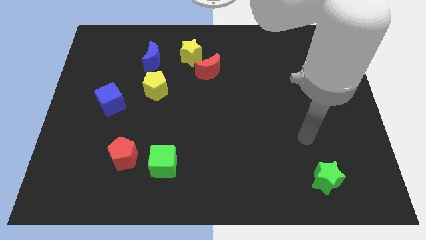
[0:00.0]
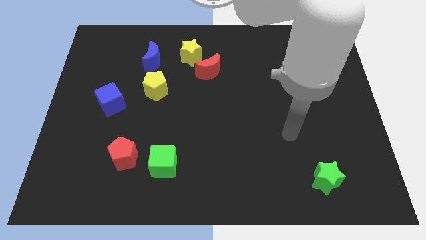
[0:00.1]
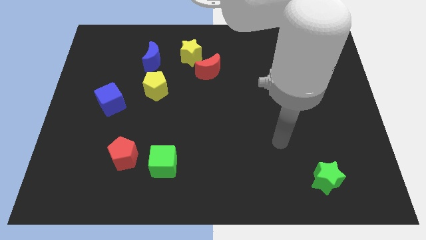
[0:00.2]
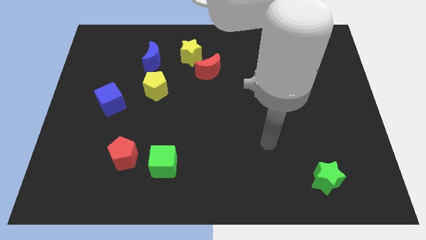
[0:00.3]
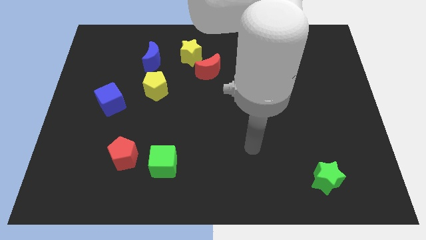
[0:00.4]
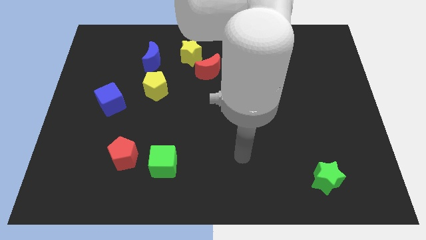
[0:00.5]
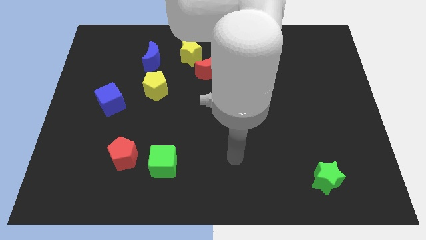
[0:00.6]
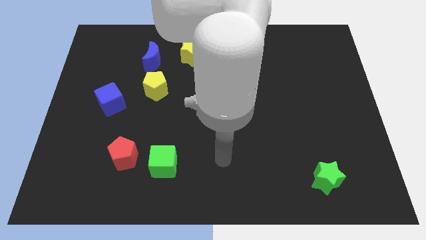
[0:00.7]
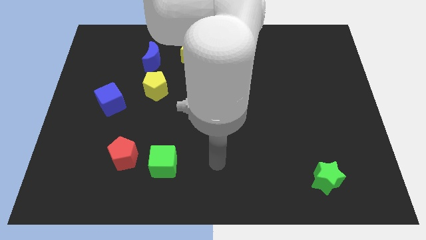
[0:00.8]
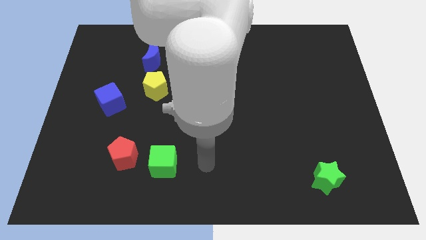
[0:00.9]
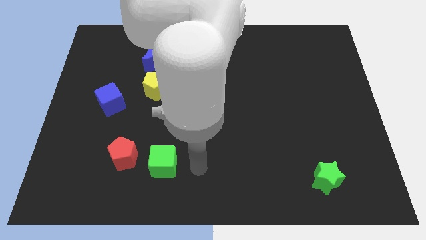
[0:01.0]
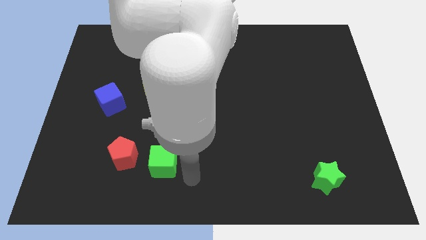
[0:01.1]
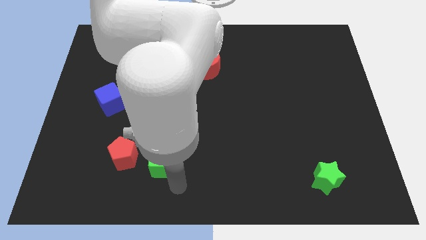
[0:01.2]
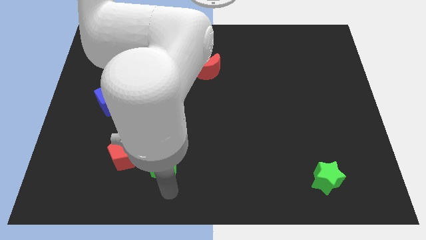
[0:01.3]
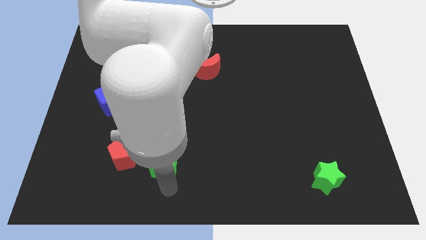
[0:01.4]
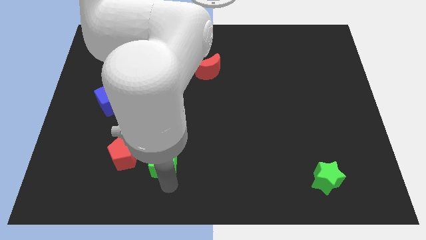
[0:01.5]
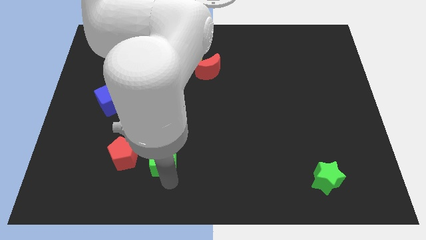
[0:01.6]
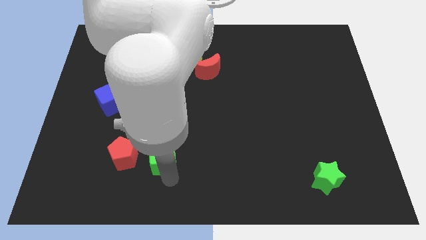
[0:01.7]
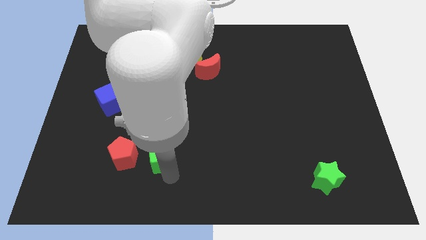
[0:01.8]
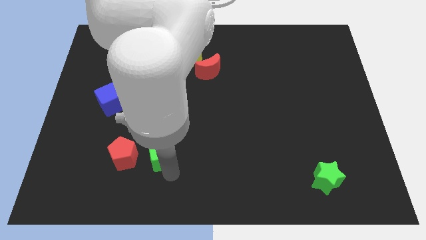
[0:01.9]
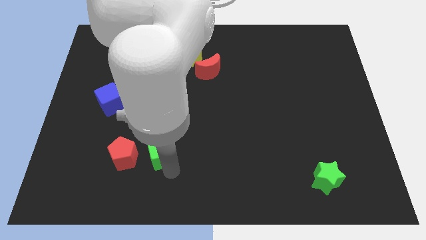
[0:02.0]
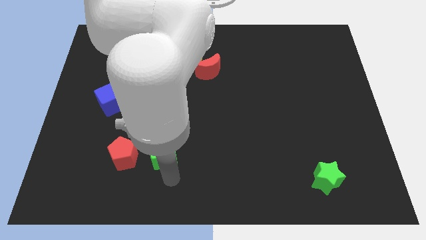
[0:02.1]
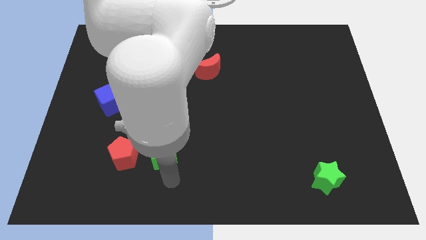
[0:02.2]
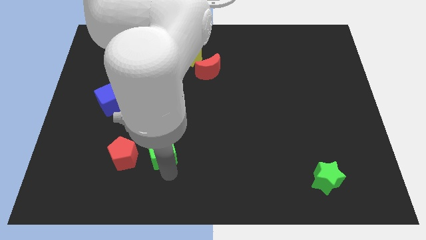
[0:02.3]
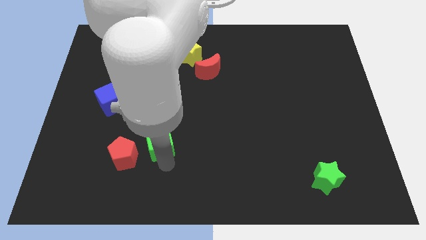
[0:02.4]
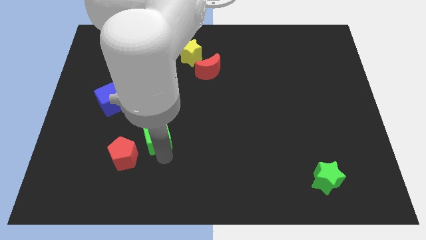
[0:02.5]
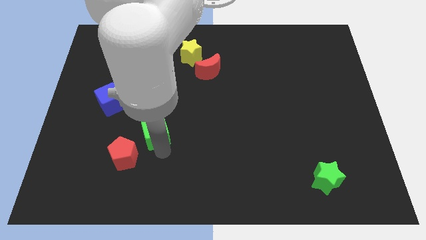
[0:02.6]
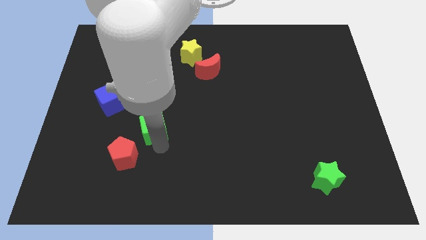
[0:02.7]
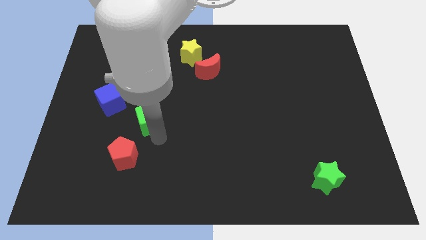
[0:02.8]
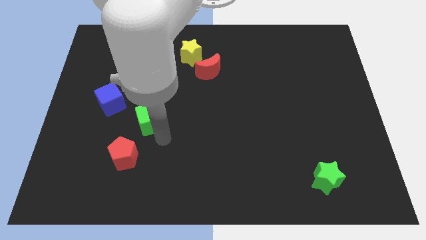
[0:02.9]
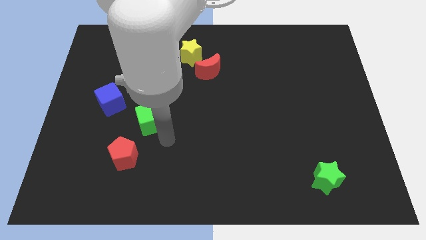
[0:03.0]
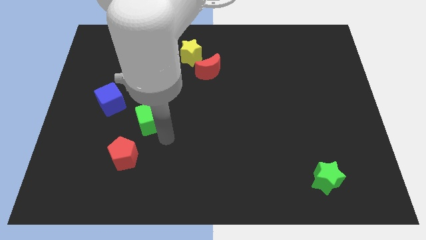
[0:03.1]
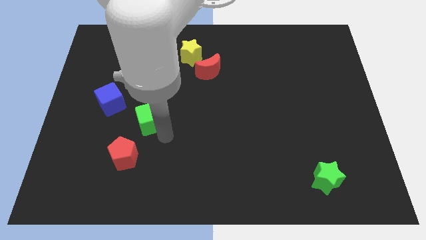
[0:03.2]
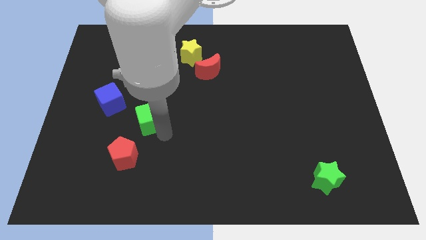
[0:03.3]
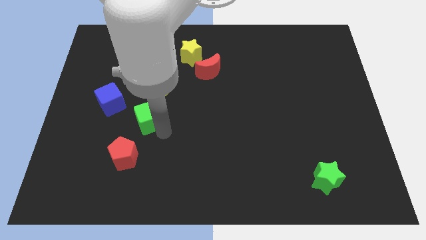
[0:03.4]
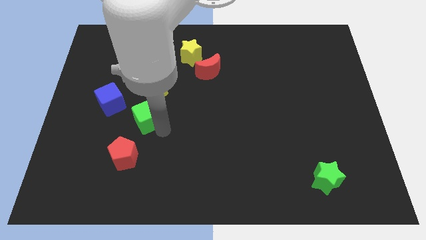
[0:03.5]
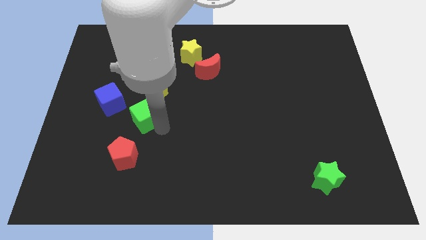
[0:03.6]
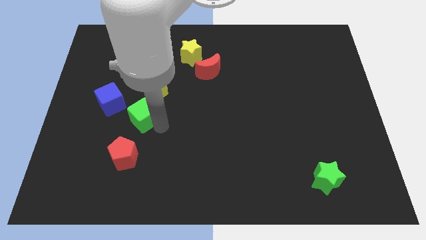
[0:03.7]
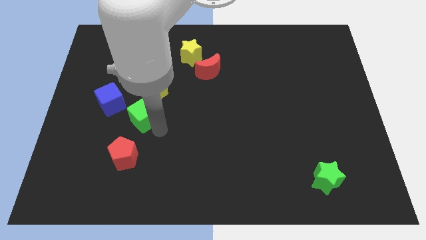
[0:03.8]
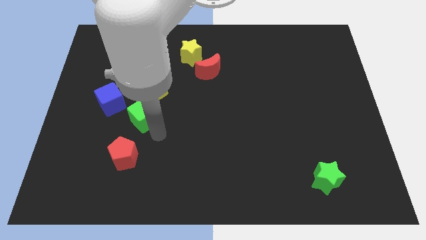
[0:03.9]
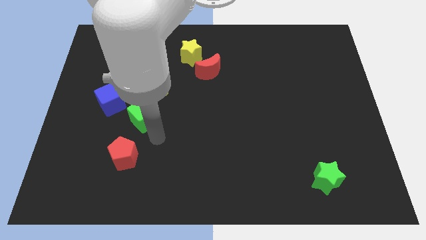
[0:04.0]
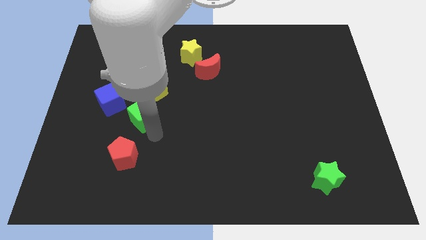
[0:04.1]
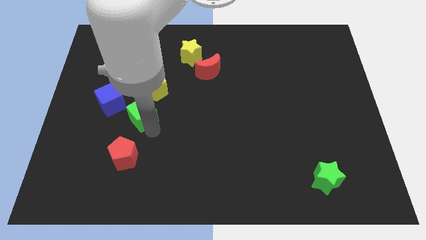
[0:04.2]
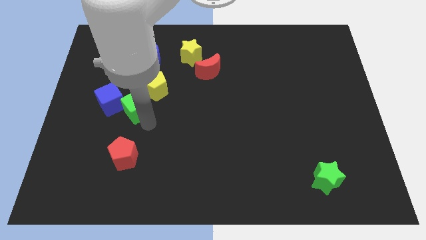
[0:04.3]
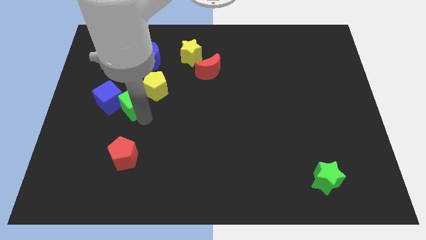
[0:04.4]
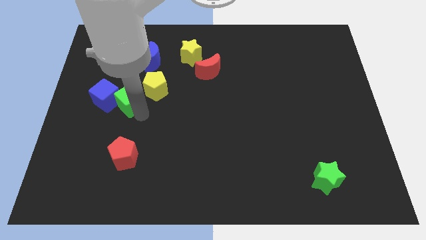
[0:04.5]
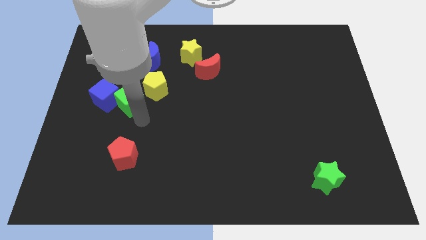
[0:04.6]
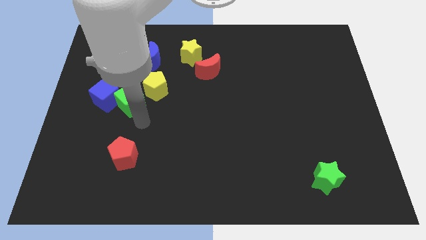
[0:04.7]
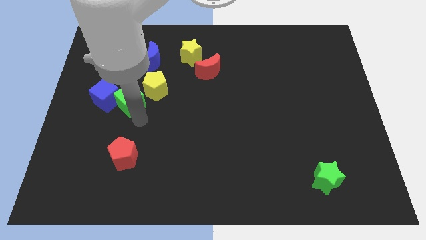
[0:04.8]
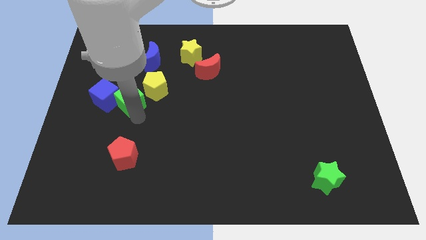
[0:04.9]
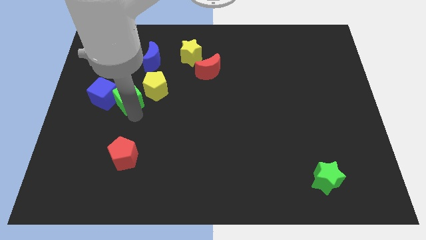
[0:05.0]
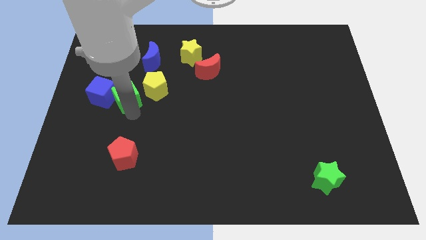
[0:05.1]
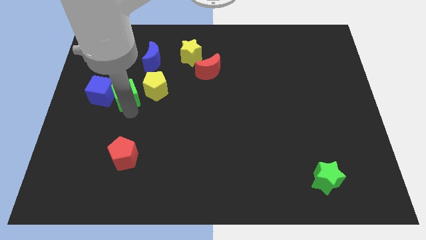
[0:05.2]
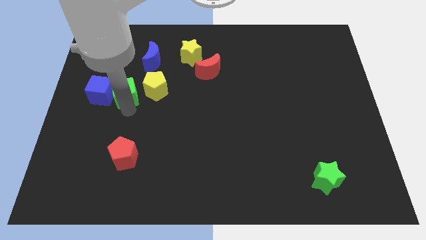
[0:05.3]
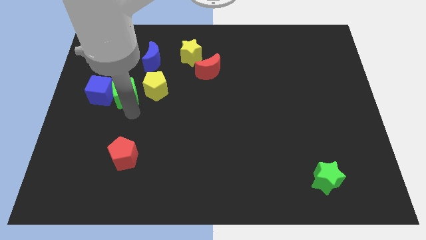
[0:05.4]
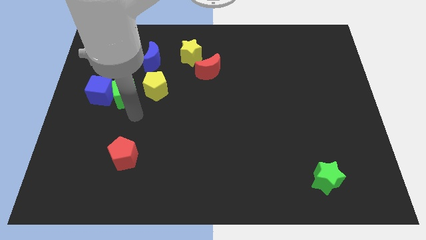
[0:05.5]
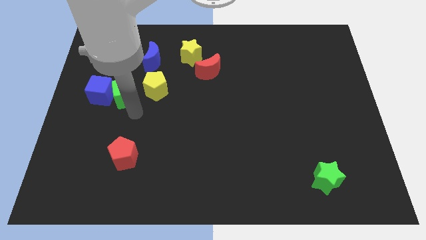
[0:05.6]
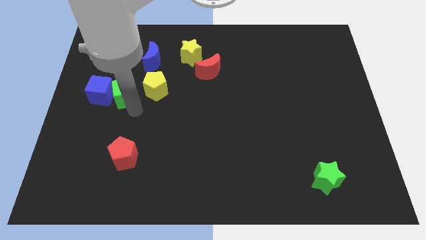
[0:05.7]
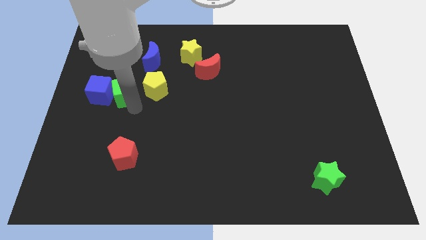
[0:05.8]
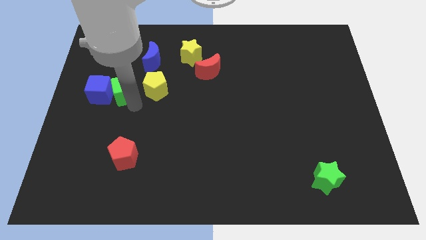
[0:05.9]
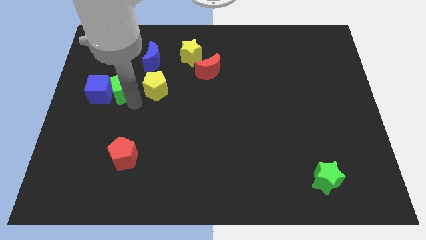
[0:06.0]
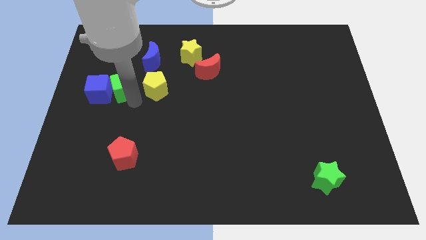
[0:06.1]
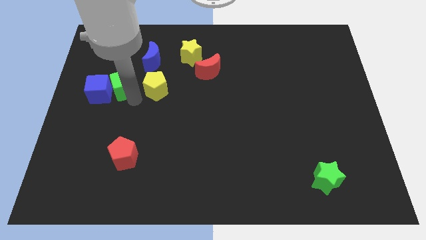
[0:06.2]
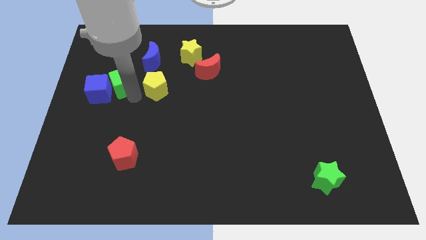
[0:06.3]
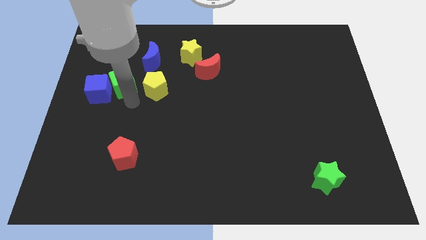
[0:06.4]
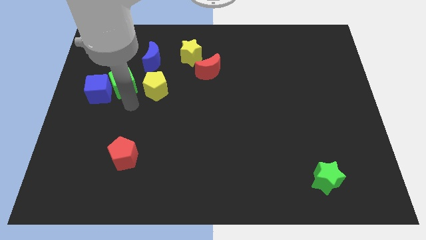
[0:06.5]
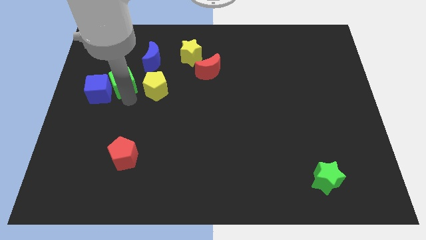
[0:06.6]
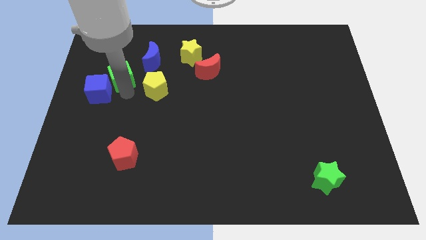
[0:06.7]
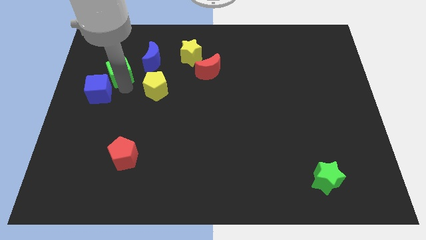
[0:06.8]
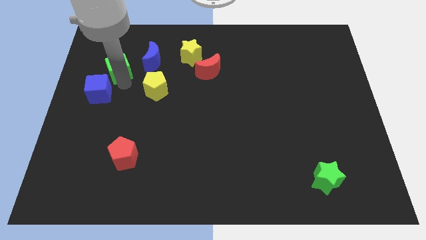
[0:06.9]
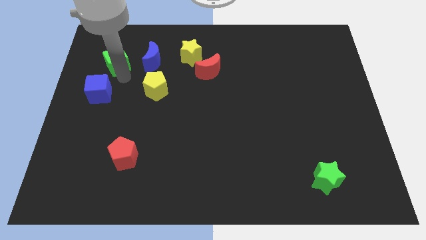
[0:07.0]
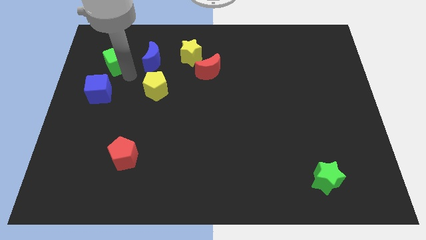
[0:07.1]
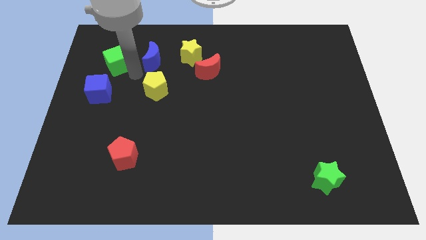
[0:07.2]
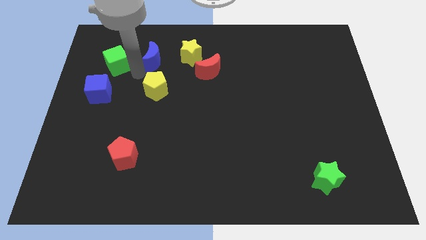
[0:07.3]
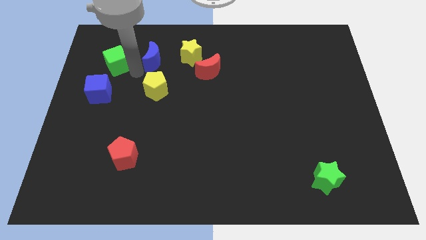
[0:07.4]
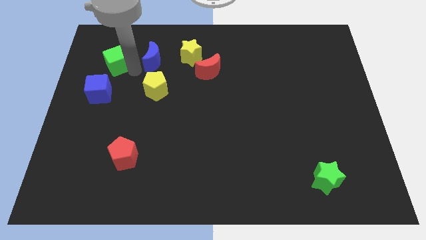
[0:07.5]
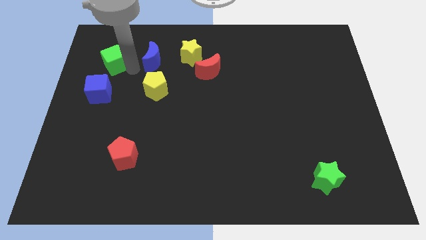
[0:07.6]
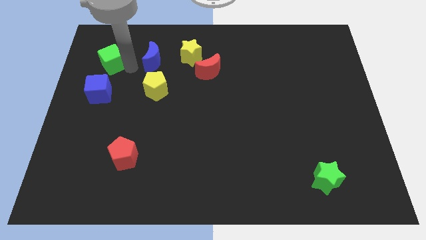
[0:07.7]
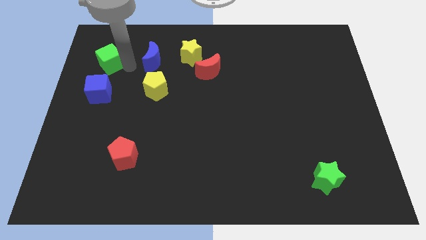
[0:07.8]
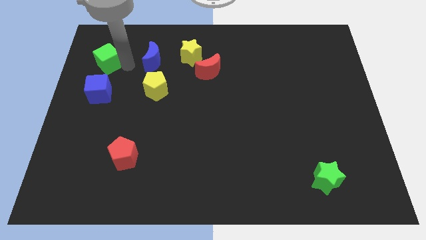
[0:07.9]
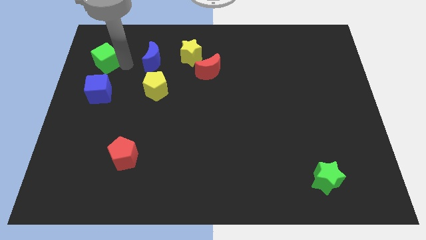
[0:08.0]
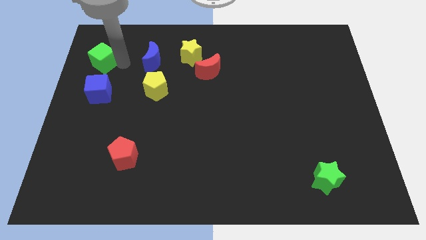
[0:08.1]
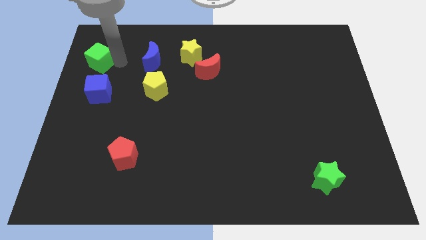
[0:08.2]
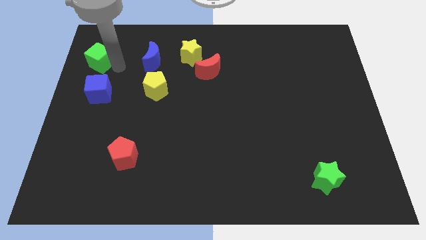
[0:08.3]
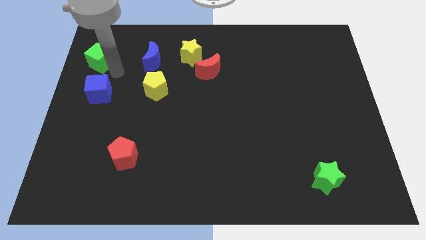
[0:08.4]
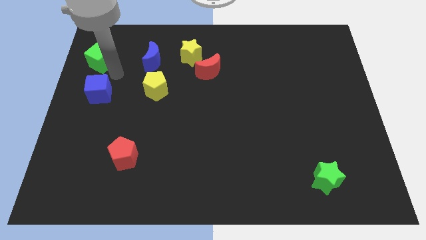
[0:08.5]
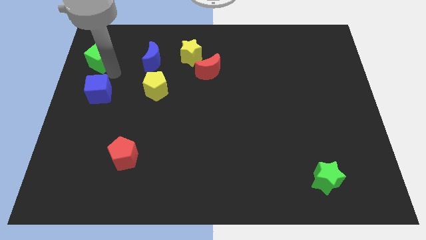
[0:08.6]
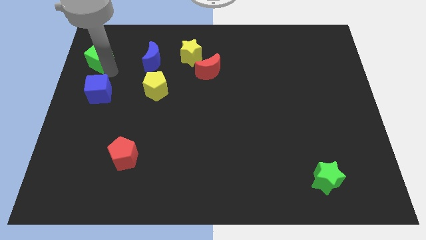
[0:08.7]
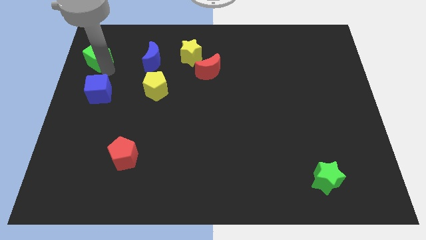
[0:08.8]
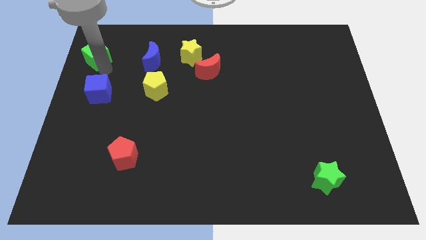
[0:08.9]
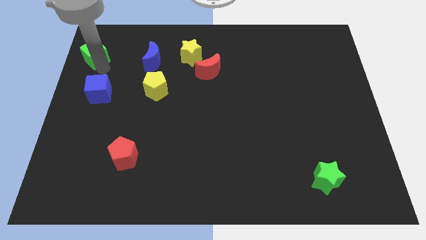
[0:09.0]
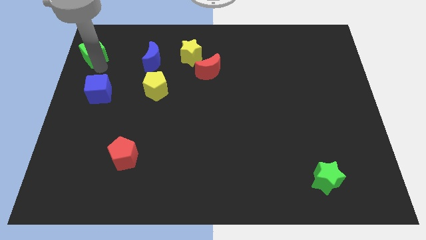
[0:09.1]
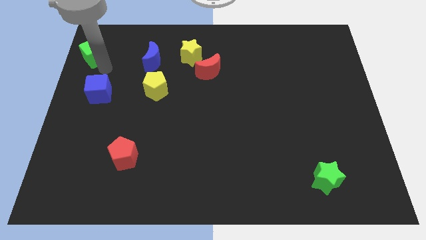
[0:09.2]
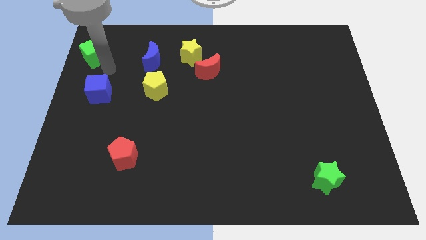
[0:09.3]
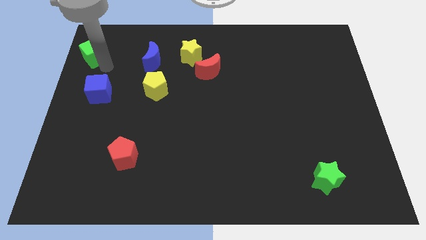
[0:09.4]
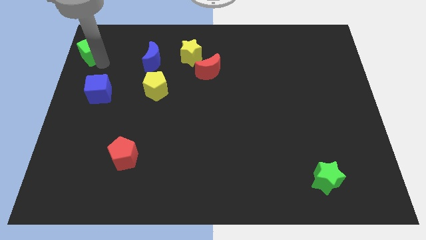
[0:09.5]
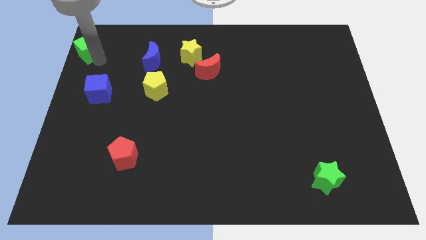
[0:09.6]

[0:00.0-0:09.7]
move the green cube to the upper left corner
